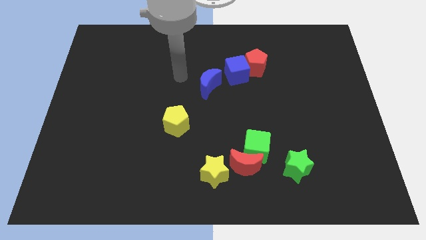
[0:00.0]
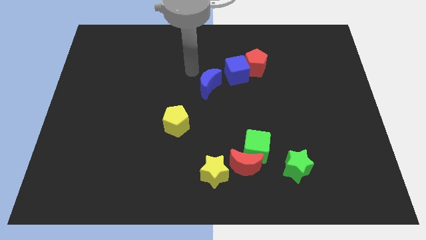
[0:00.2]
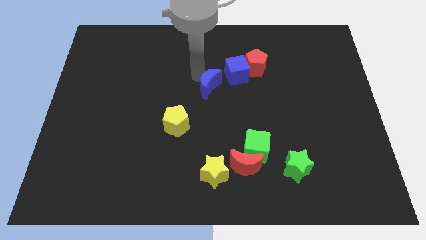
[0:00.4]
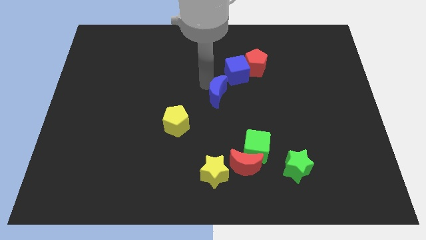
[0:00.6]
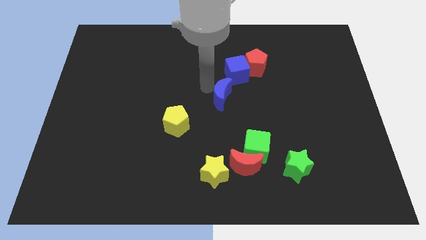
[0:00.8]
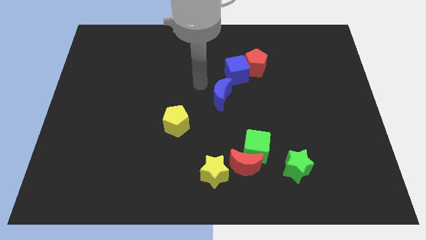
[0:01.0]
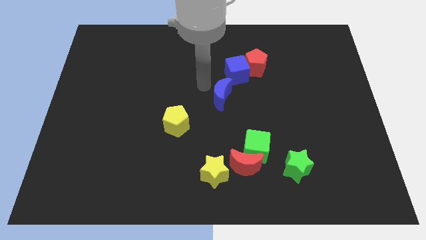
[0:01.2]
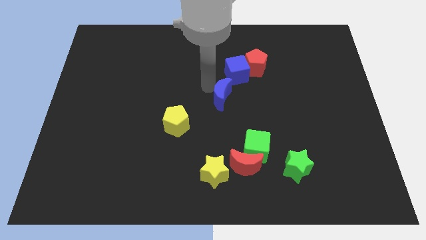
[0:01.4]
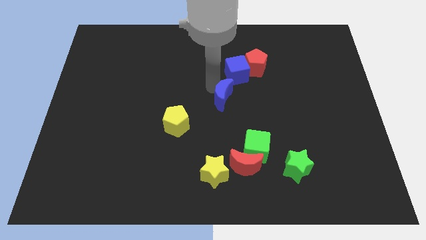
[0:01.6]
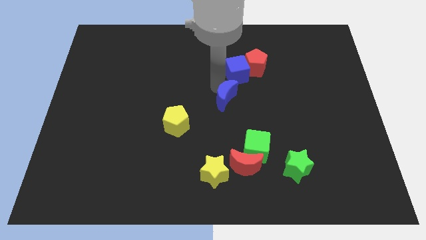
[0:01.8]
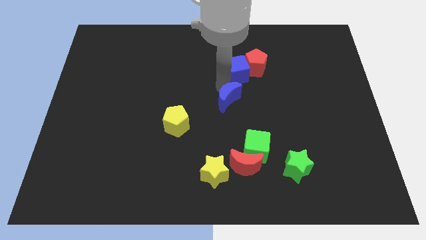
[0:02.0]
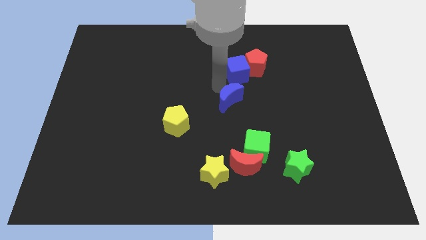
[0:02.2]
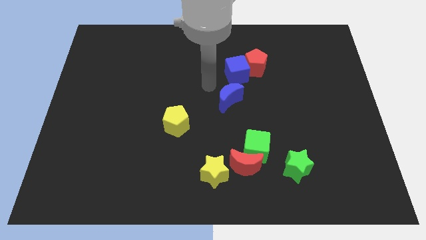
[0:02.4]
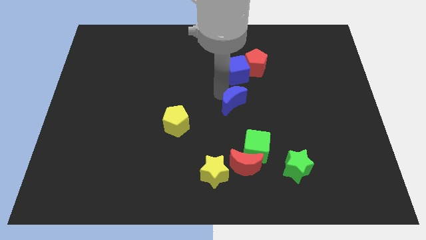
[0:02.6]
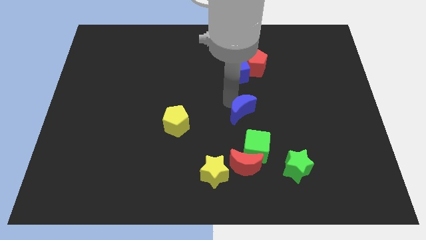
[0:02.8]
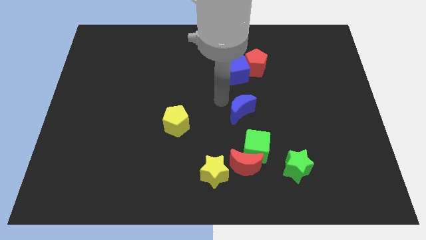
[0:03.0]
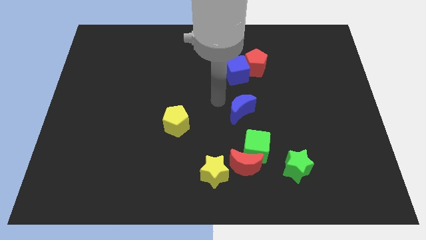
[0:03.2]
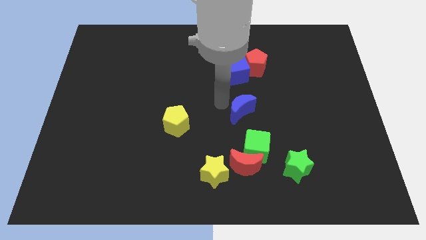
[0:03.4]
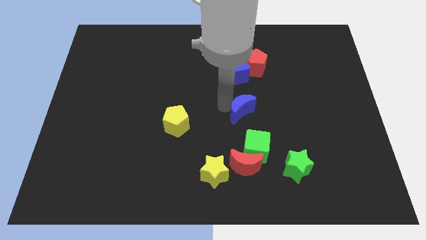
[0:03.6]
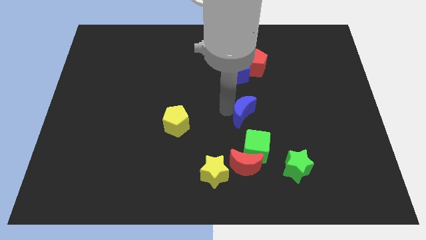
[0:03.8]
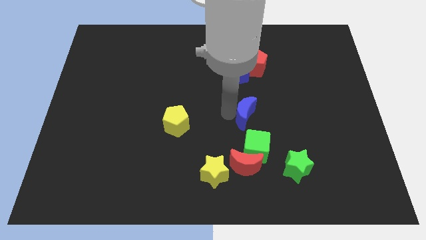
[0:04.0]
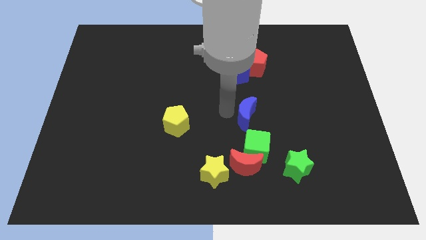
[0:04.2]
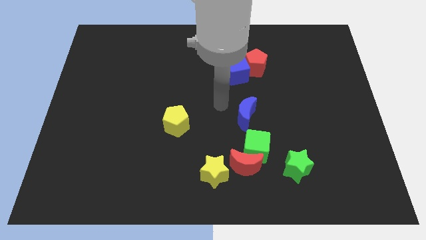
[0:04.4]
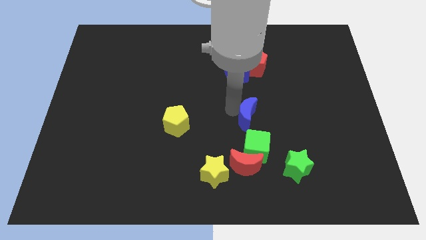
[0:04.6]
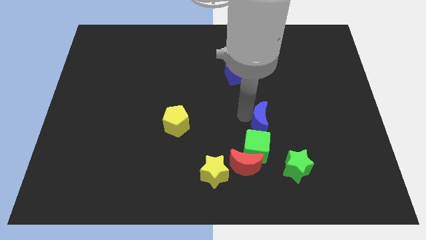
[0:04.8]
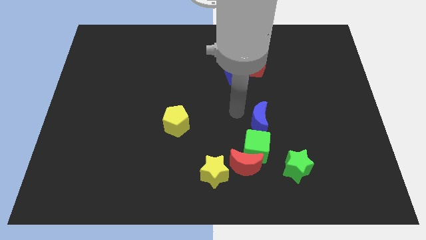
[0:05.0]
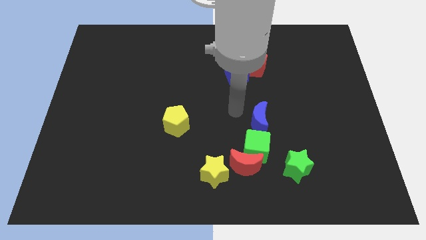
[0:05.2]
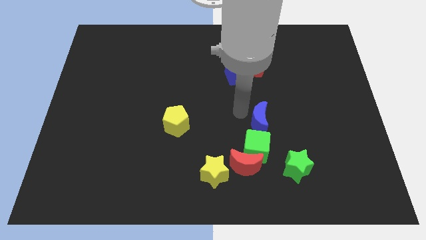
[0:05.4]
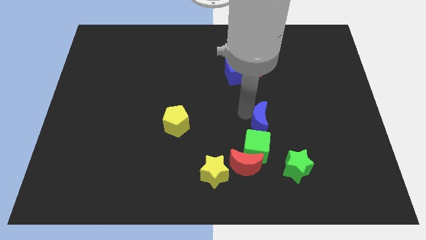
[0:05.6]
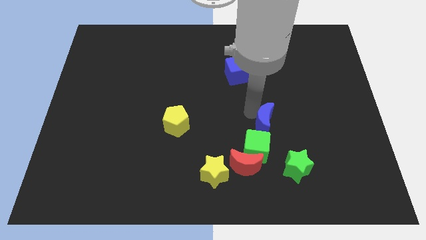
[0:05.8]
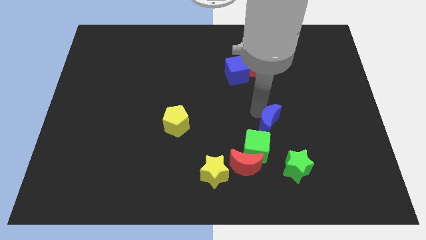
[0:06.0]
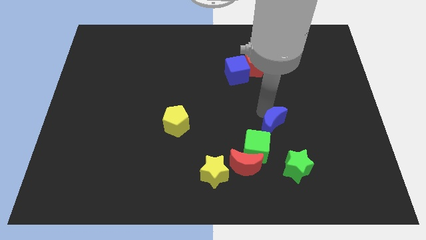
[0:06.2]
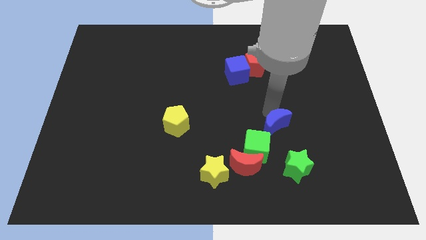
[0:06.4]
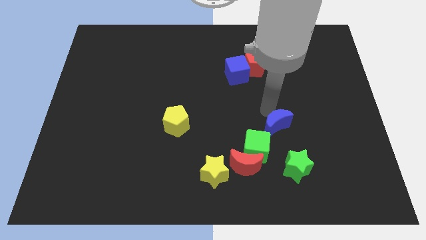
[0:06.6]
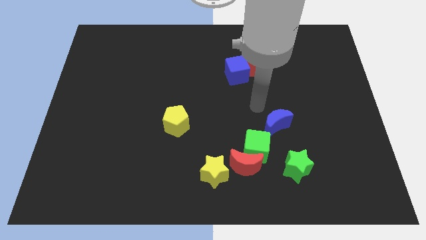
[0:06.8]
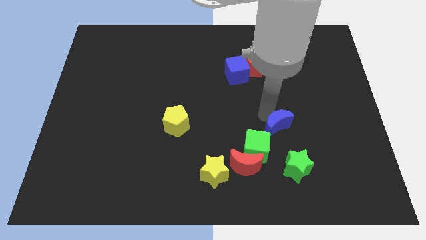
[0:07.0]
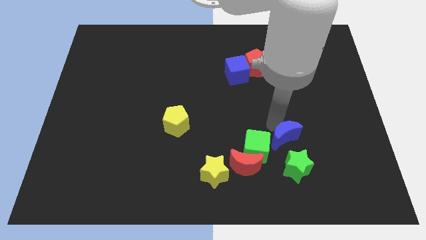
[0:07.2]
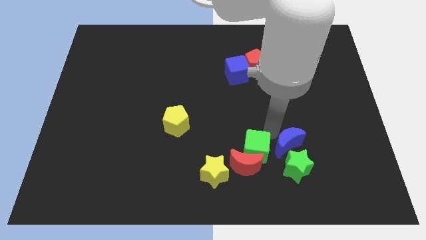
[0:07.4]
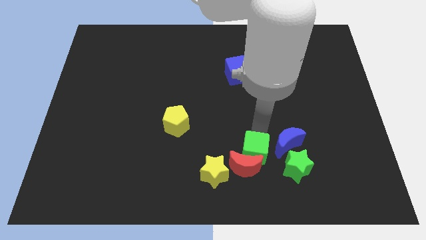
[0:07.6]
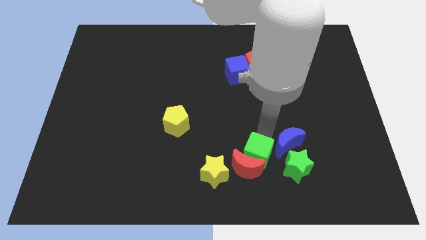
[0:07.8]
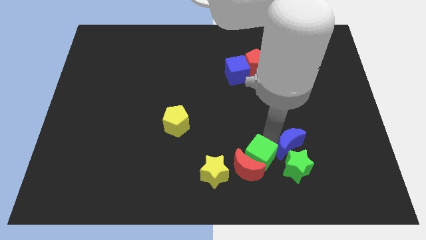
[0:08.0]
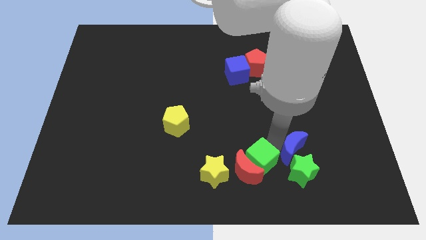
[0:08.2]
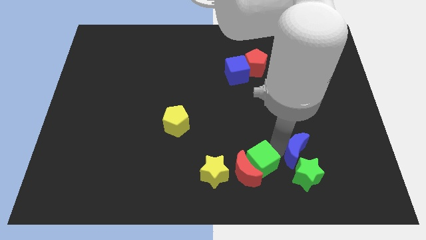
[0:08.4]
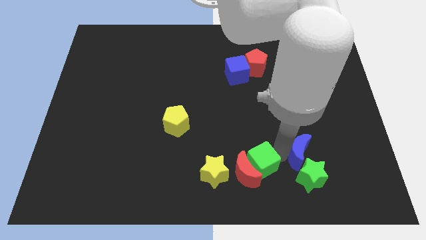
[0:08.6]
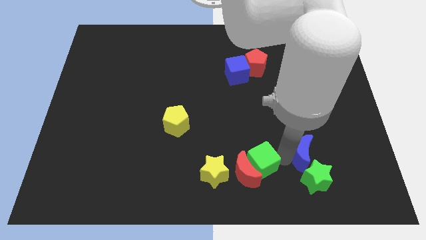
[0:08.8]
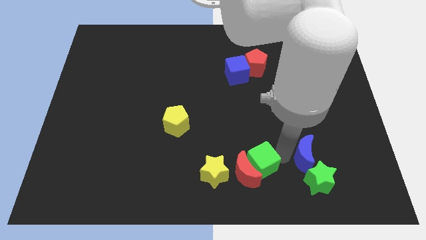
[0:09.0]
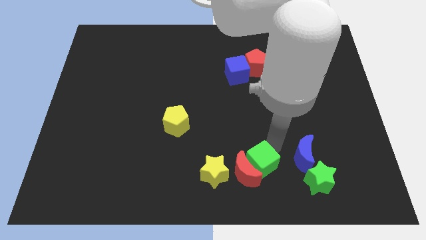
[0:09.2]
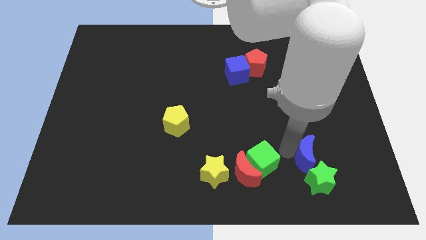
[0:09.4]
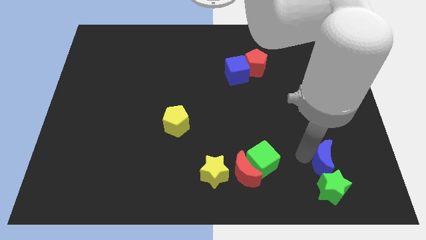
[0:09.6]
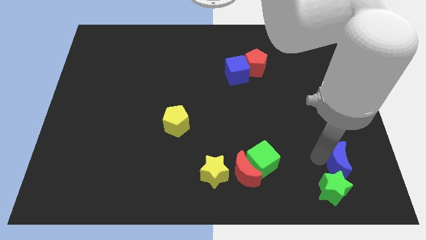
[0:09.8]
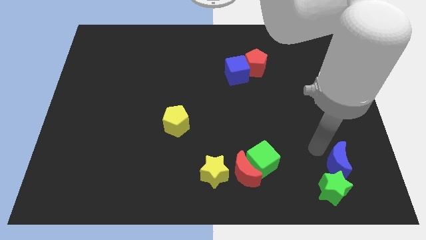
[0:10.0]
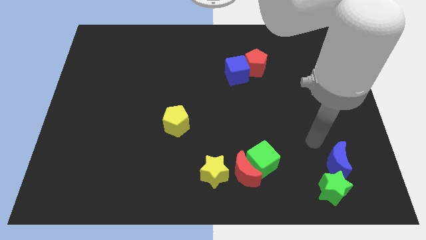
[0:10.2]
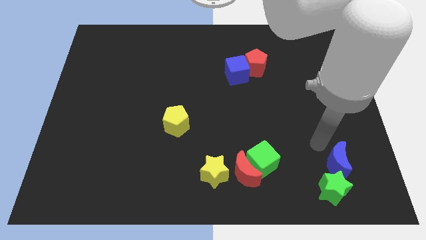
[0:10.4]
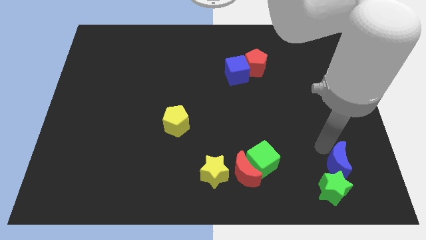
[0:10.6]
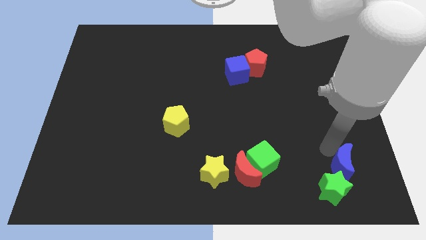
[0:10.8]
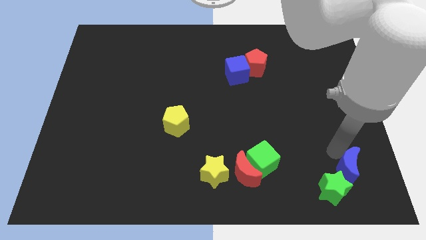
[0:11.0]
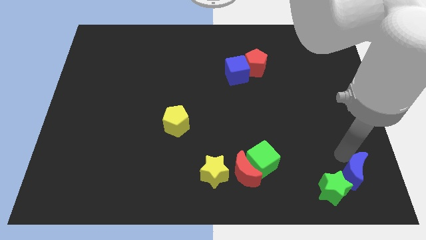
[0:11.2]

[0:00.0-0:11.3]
push the blue moon to the bottom right of the board
